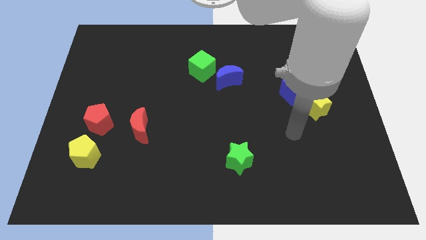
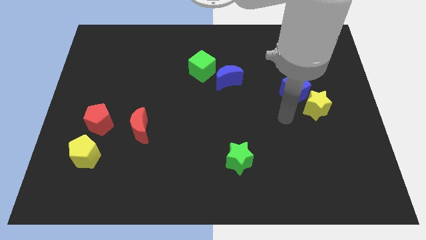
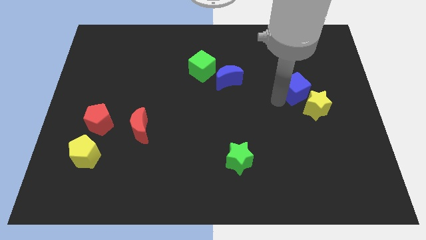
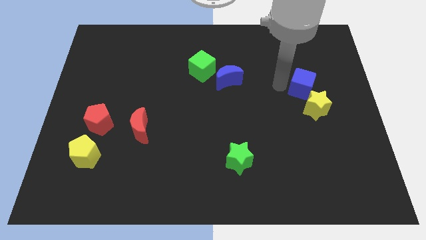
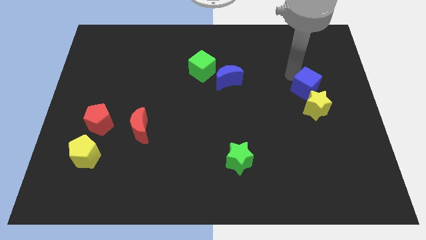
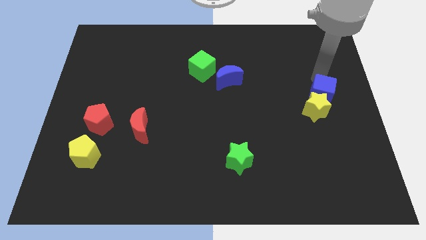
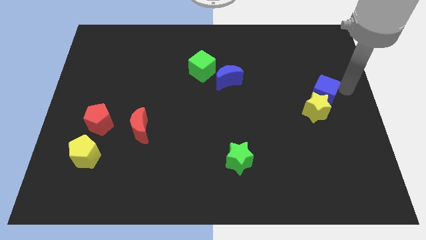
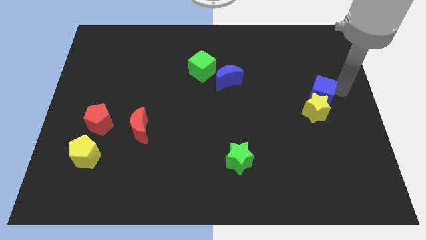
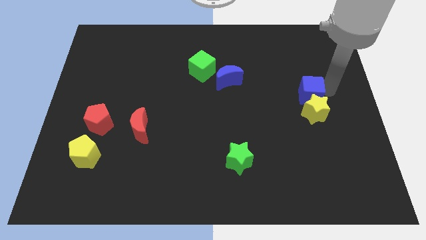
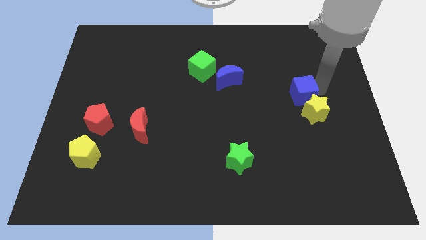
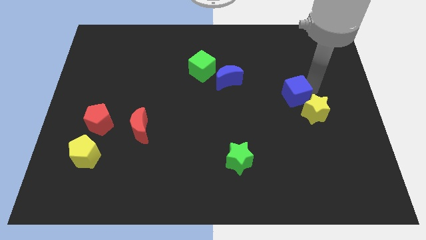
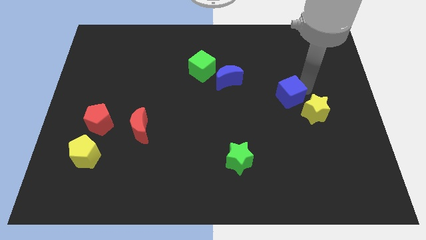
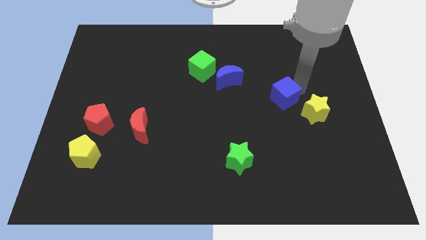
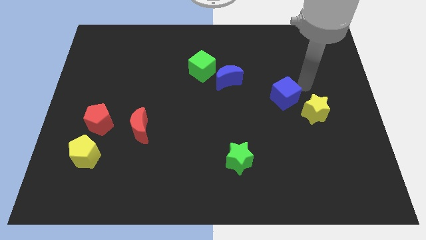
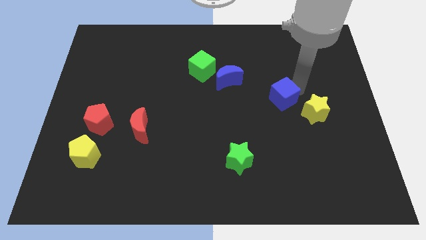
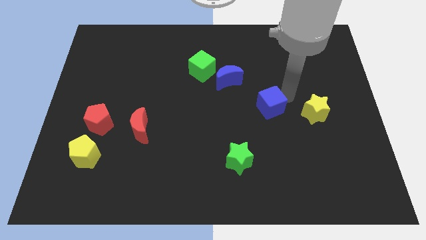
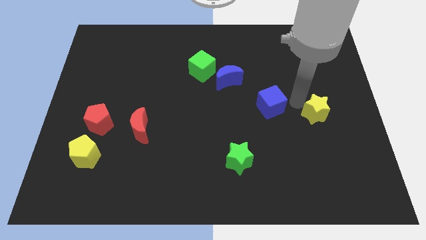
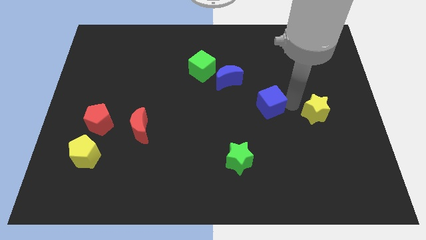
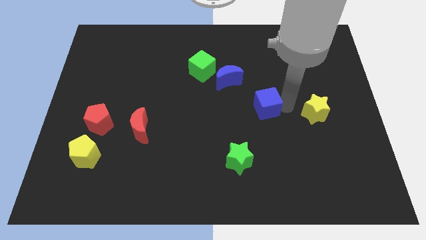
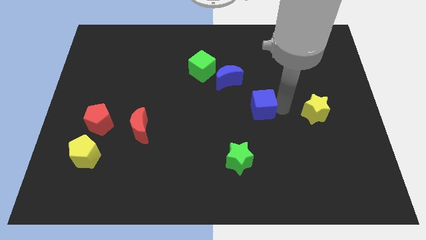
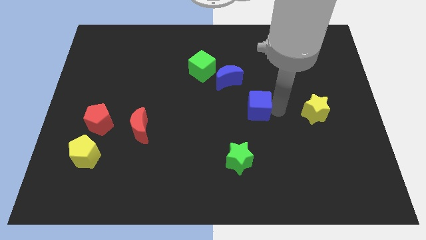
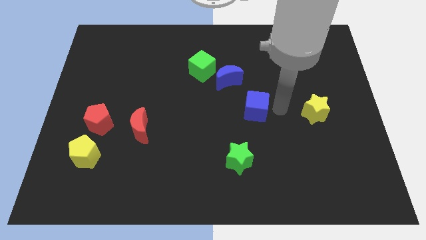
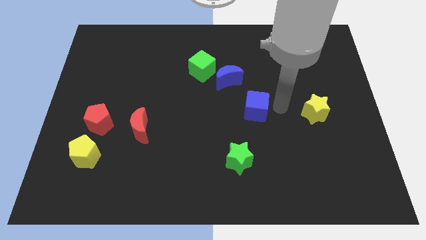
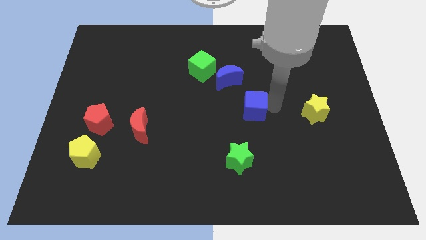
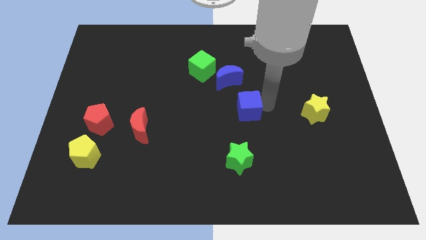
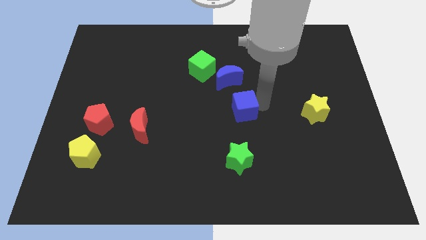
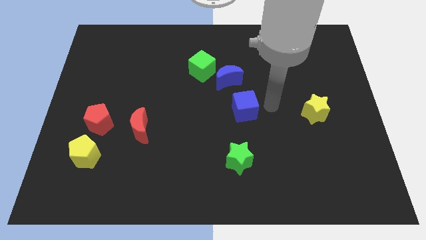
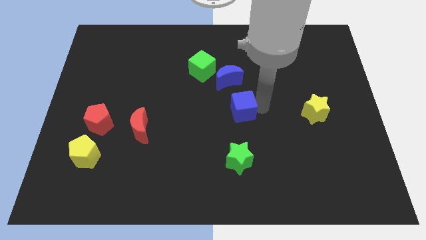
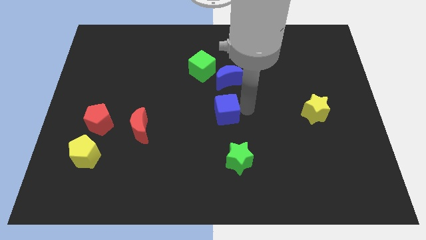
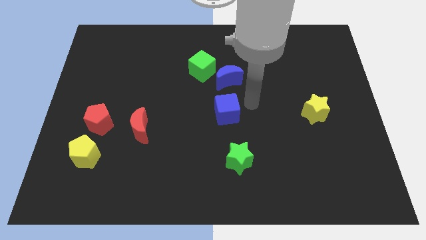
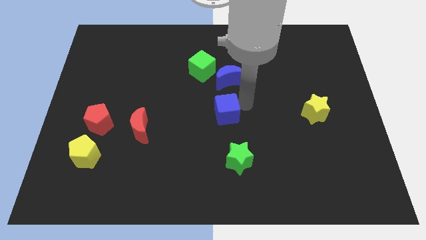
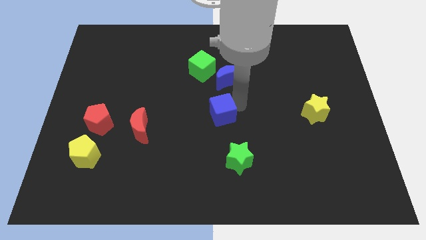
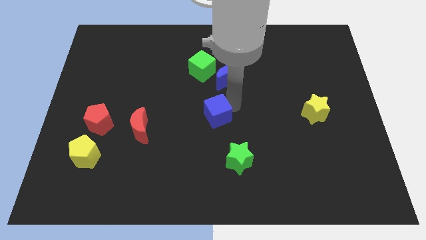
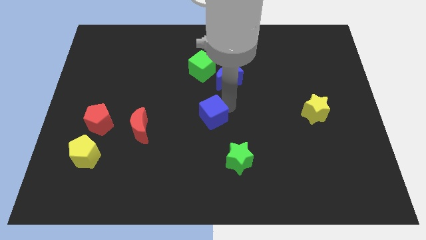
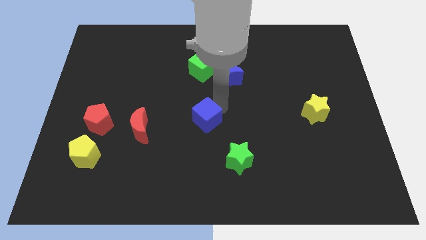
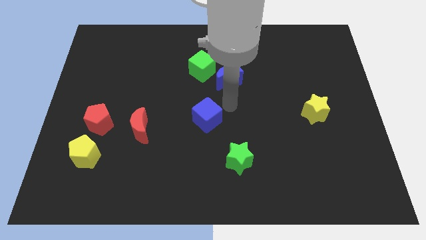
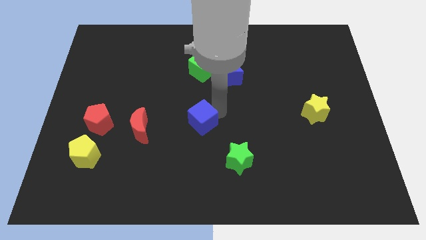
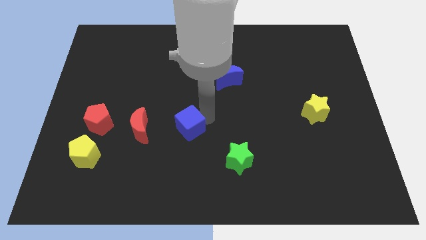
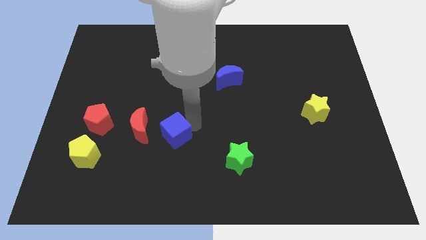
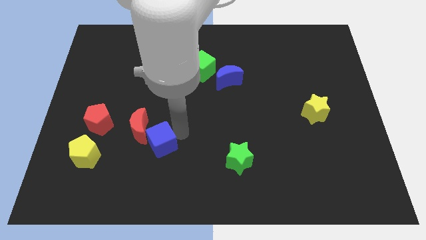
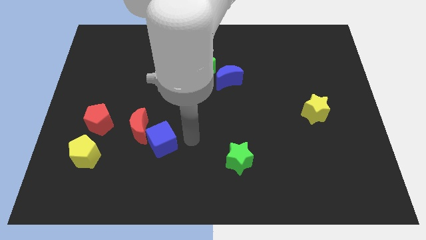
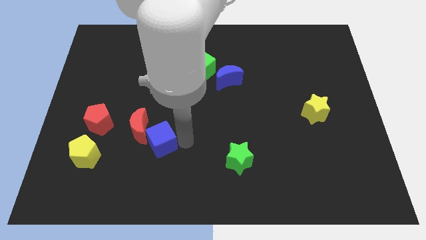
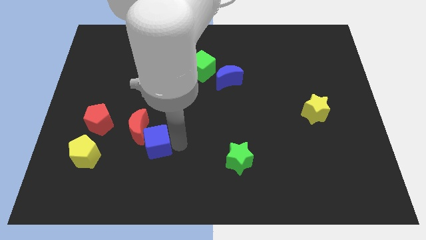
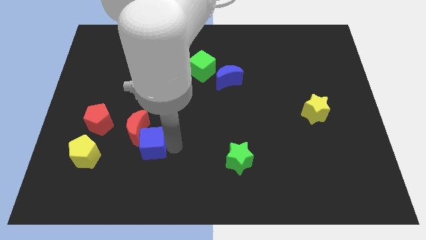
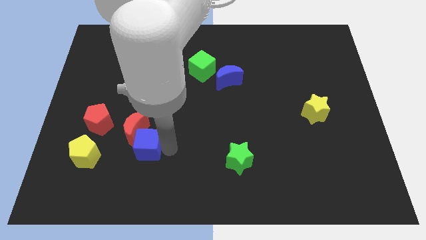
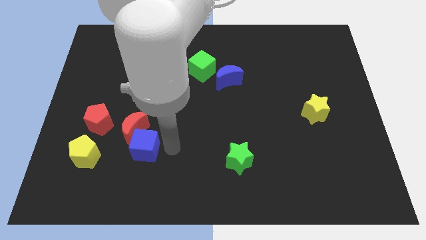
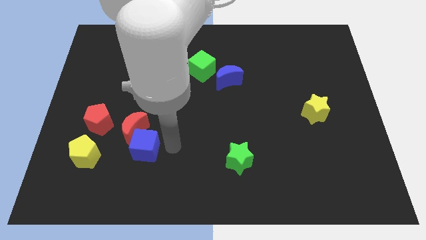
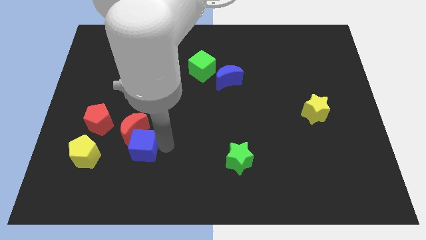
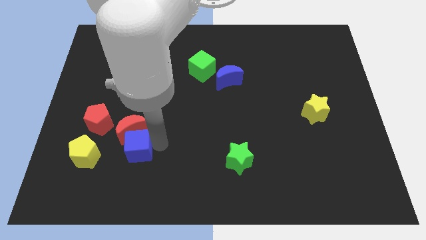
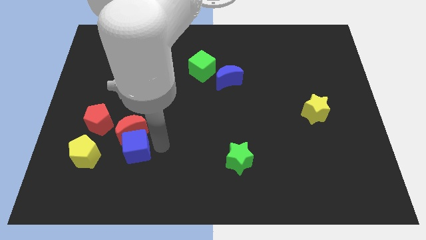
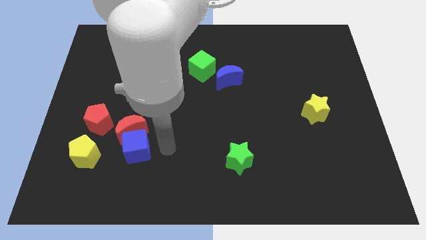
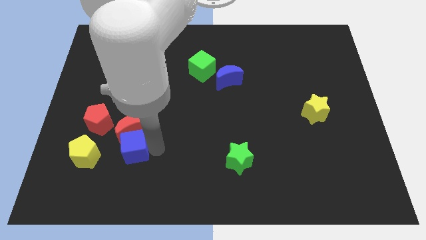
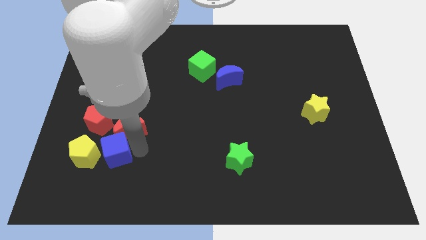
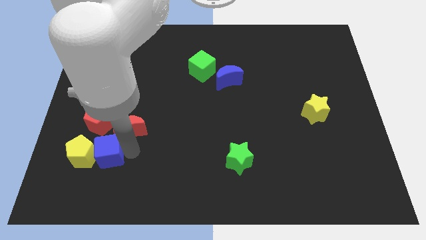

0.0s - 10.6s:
push the blue cube towards the yellow pentagon

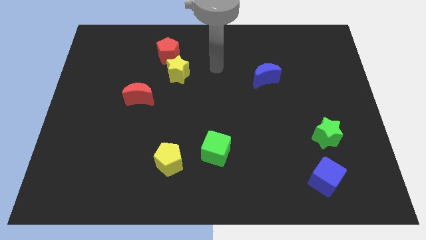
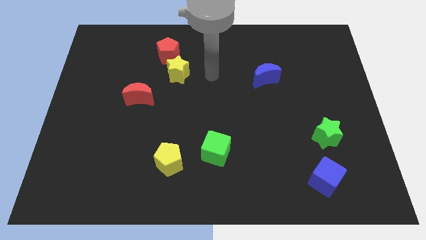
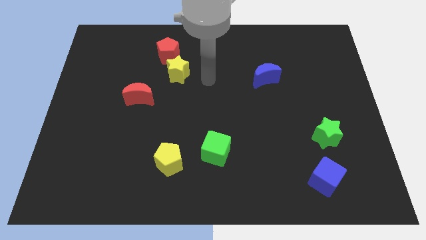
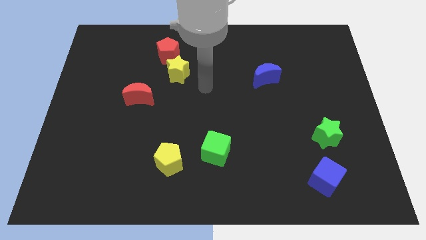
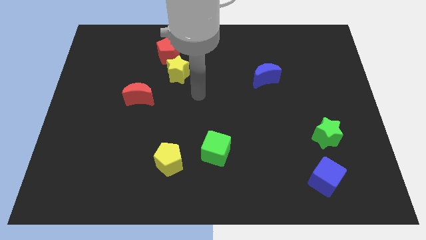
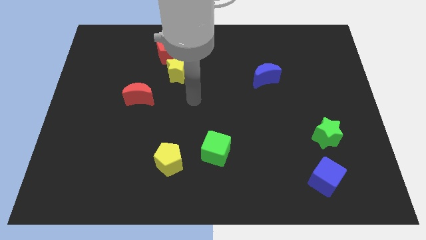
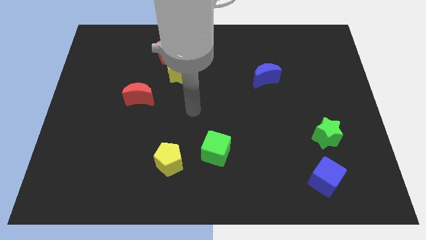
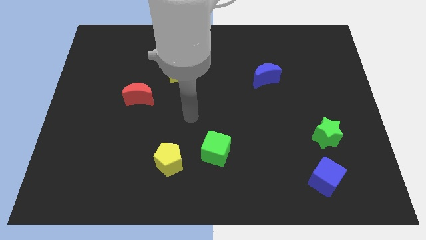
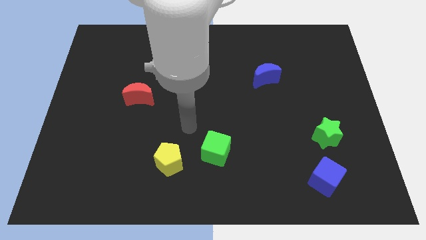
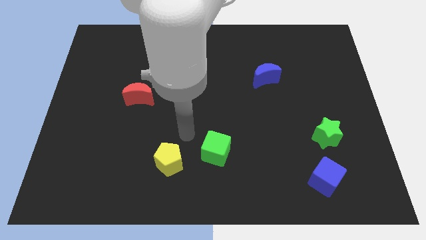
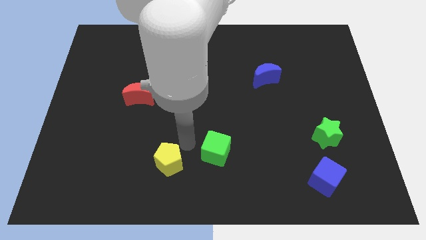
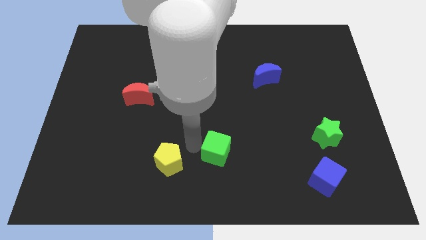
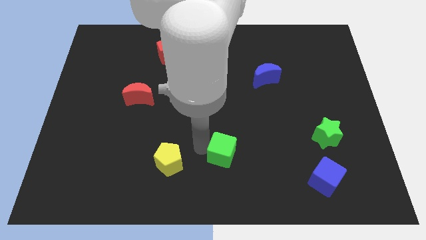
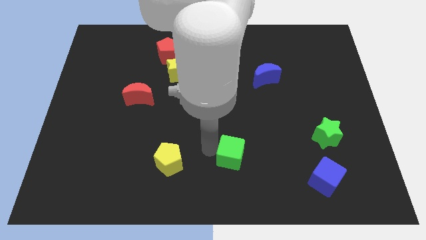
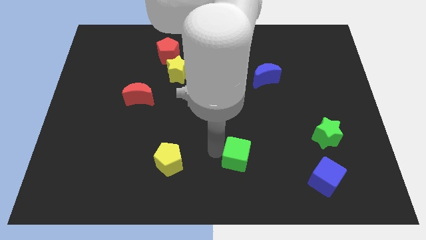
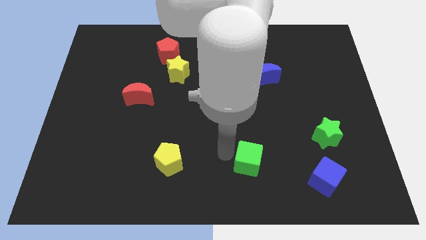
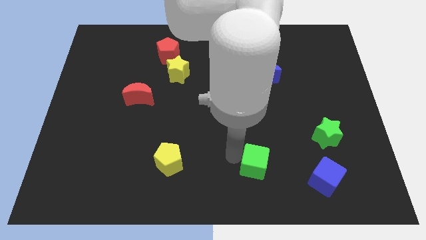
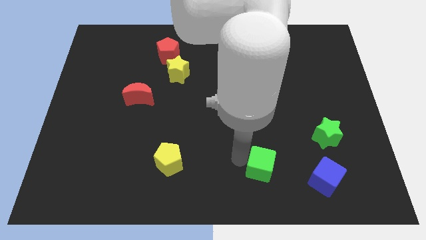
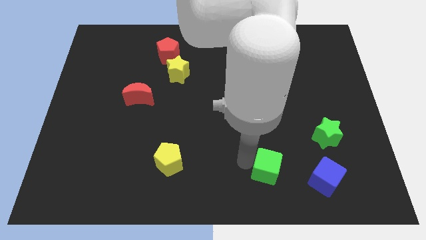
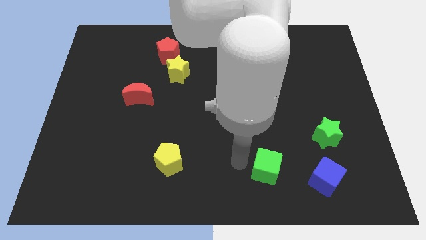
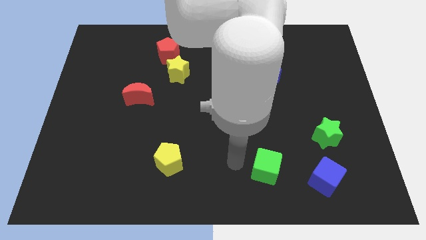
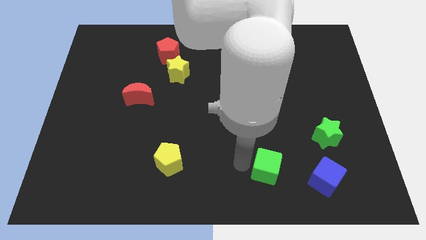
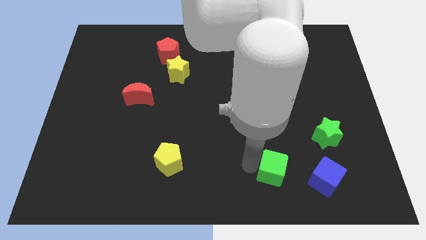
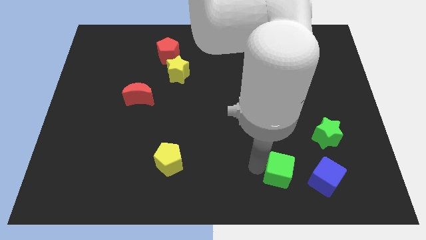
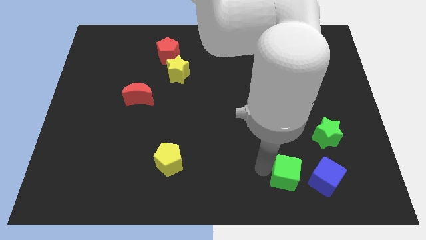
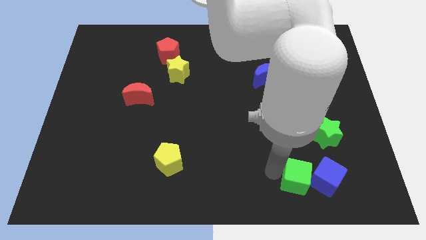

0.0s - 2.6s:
slide the green cube towards the blue cube

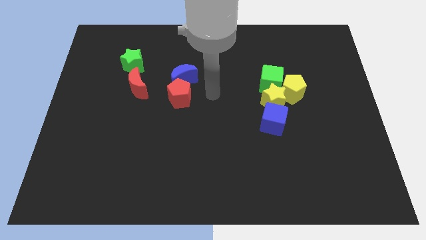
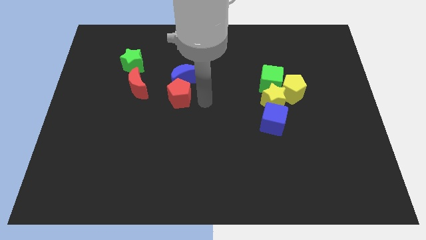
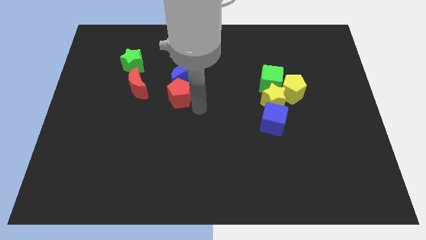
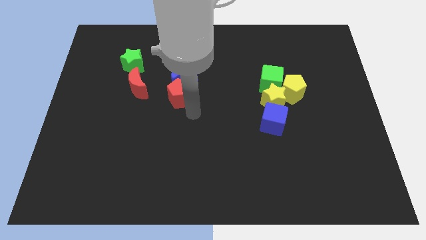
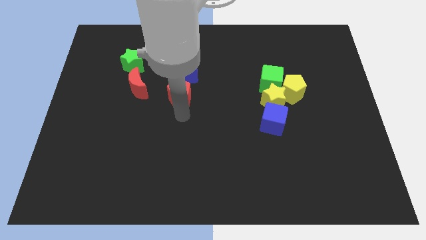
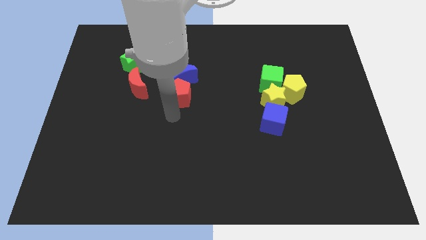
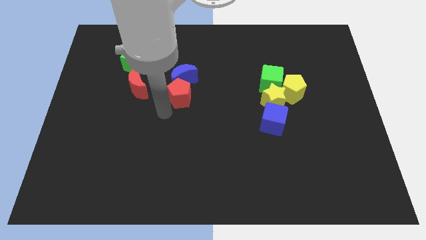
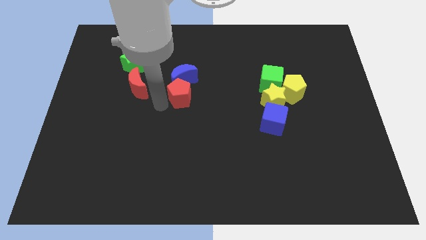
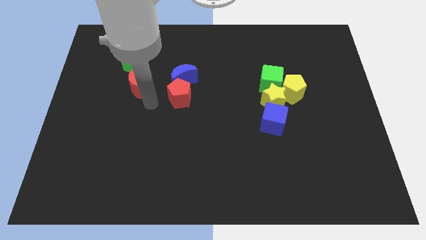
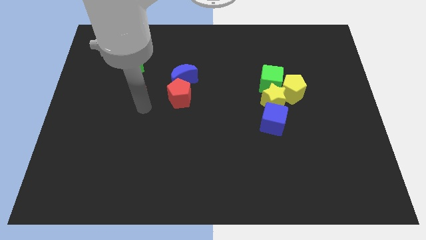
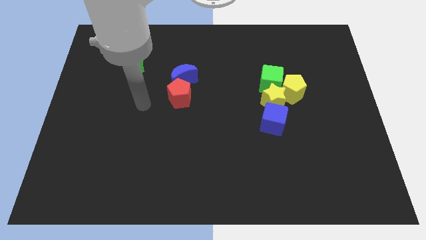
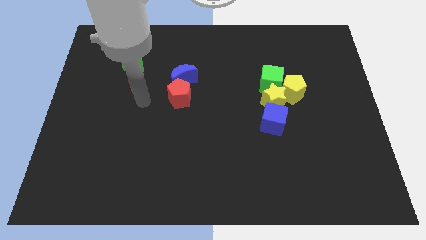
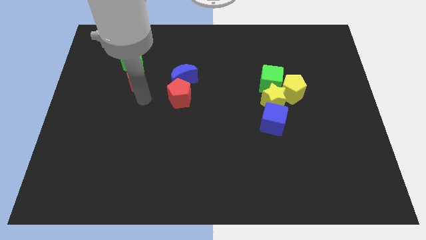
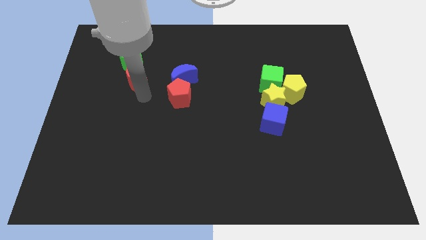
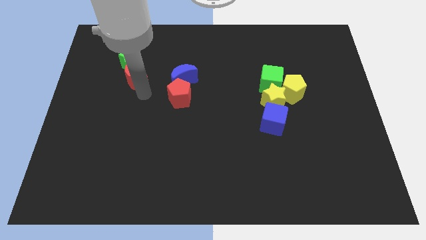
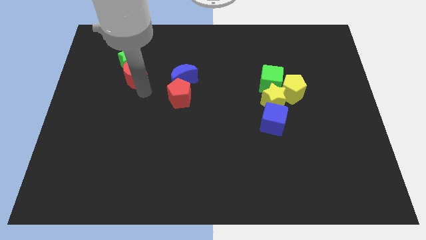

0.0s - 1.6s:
put the red moon to the green star
